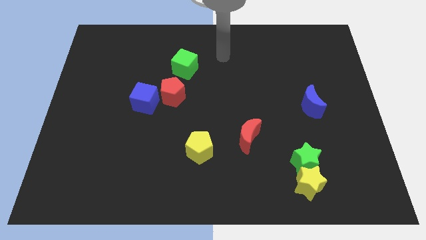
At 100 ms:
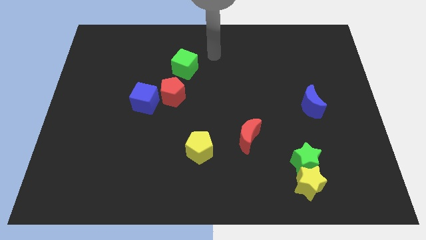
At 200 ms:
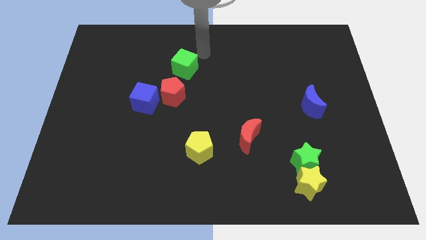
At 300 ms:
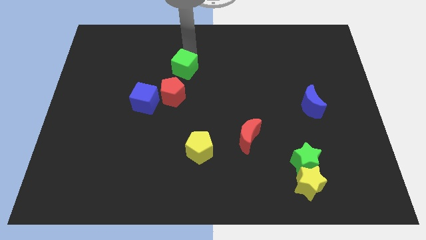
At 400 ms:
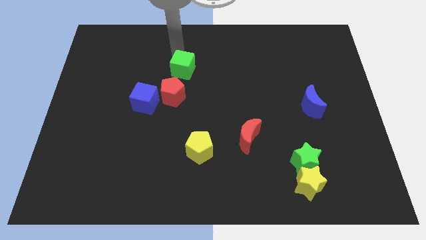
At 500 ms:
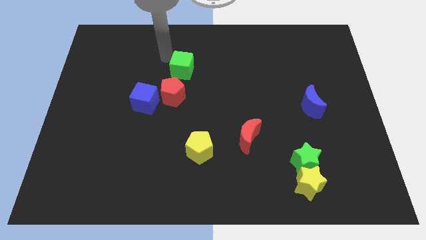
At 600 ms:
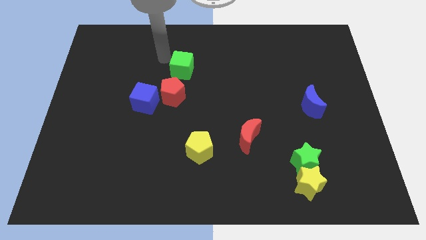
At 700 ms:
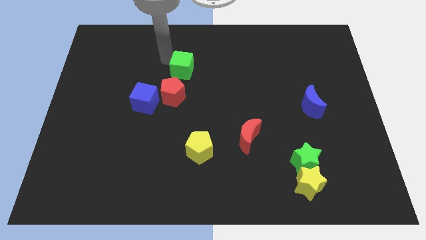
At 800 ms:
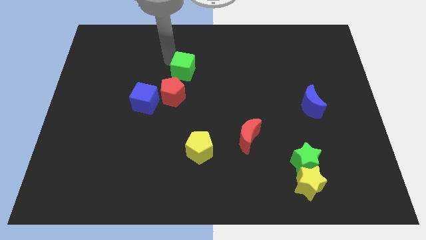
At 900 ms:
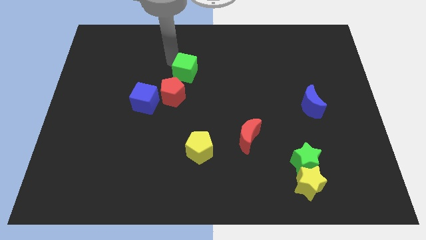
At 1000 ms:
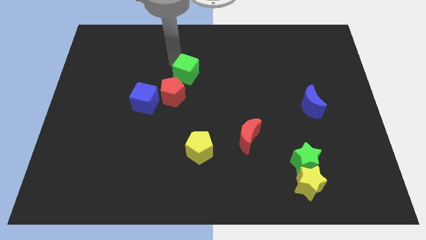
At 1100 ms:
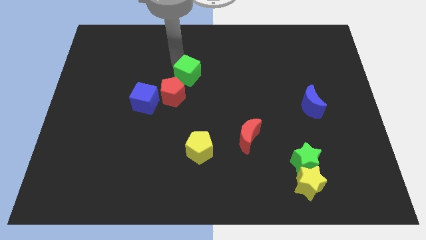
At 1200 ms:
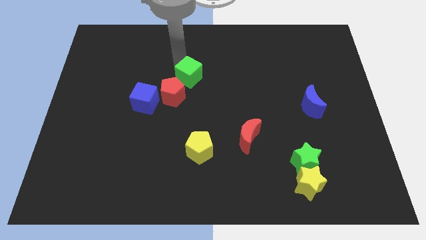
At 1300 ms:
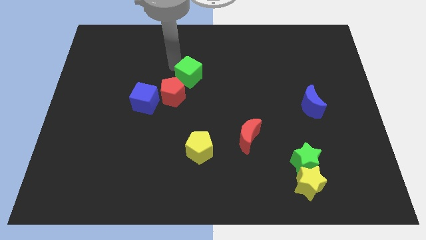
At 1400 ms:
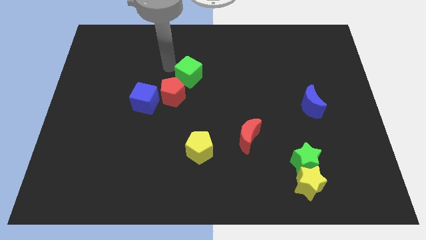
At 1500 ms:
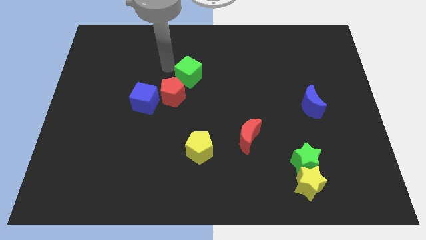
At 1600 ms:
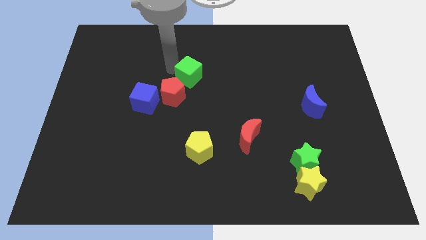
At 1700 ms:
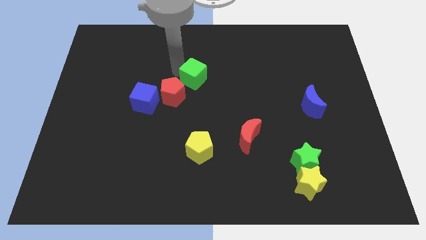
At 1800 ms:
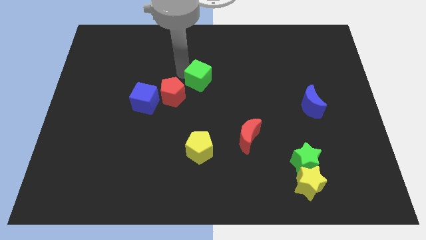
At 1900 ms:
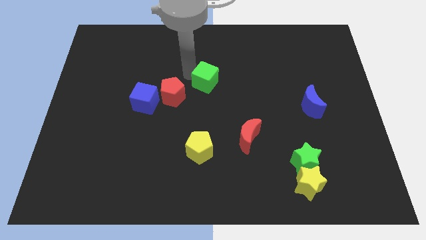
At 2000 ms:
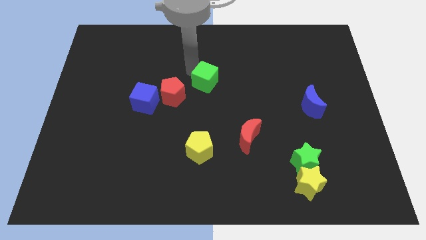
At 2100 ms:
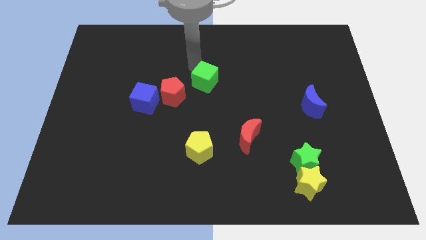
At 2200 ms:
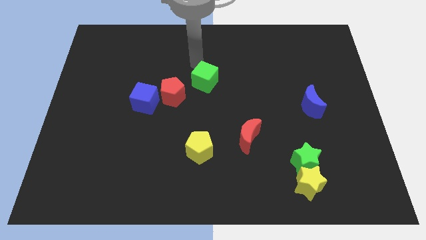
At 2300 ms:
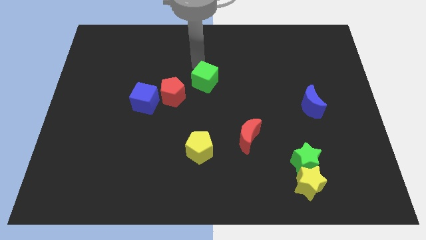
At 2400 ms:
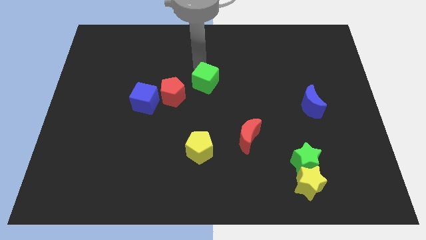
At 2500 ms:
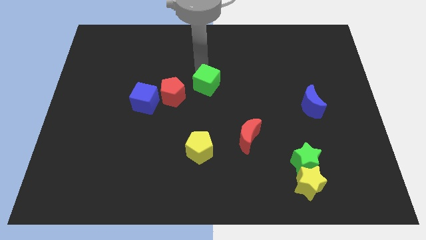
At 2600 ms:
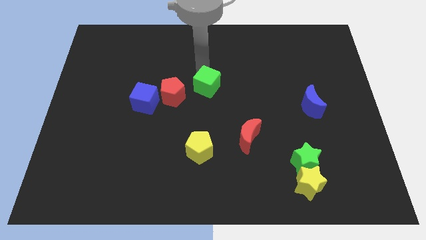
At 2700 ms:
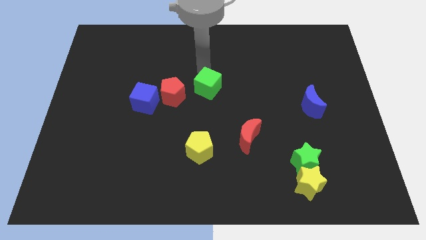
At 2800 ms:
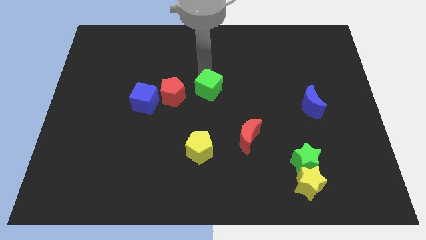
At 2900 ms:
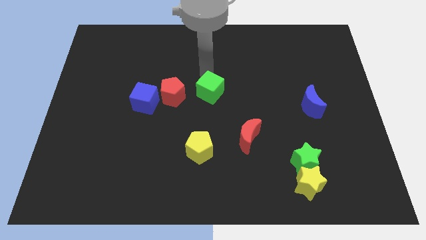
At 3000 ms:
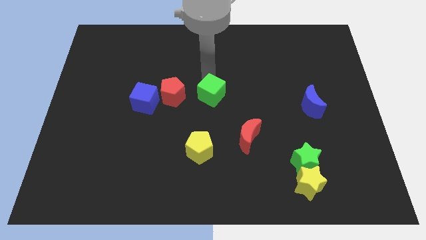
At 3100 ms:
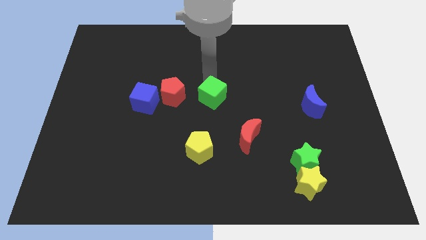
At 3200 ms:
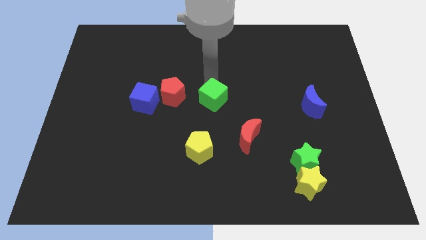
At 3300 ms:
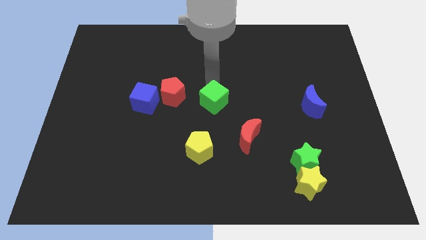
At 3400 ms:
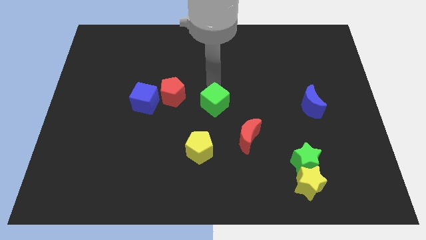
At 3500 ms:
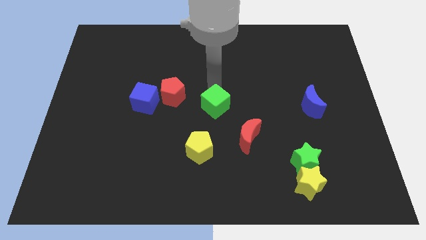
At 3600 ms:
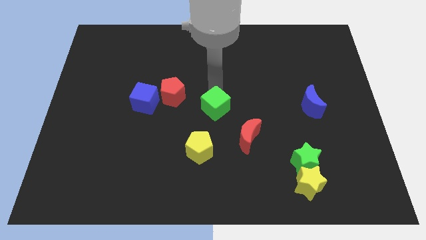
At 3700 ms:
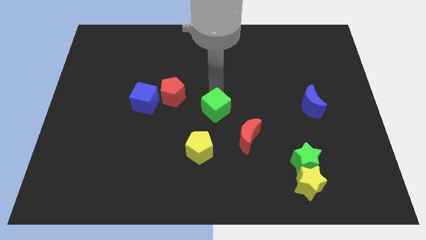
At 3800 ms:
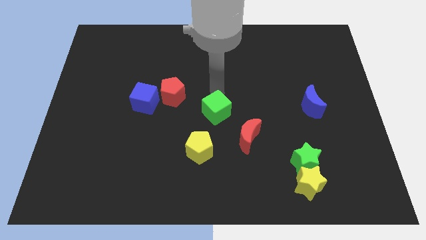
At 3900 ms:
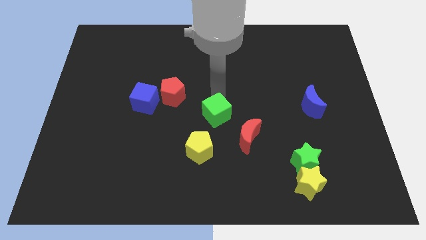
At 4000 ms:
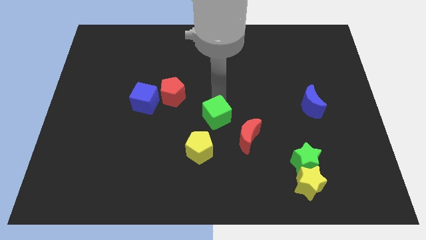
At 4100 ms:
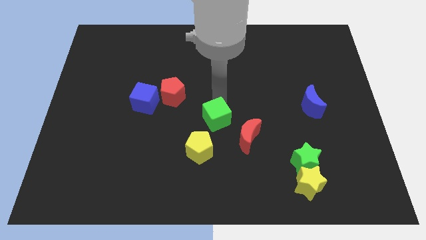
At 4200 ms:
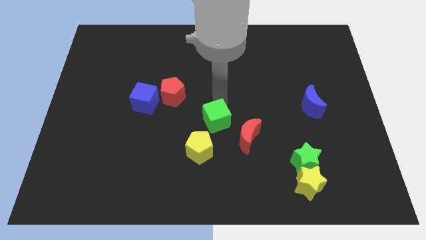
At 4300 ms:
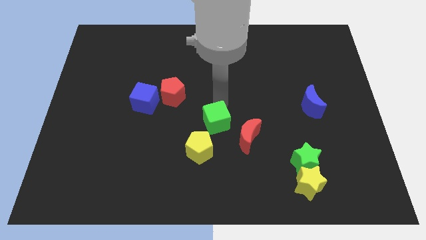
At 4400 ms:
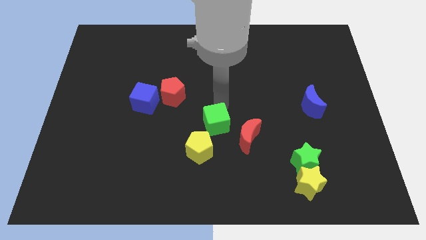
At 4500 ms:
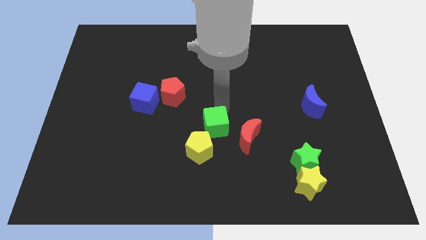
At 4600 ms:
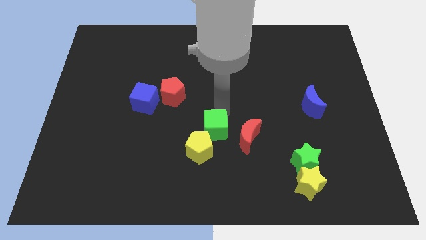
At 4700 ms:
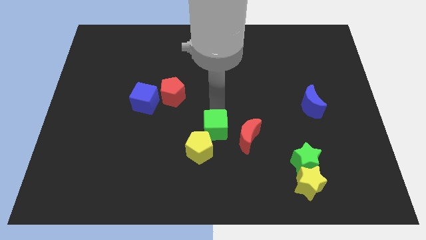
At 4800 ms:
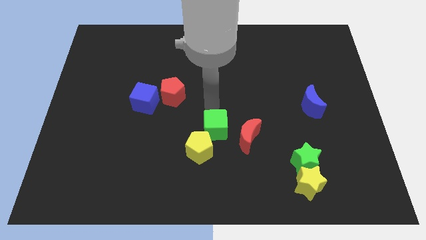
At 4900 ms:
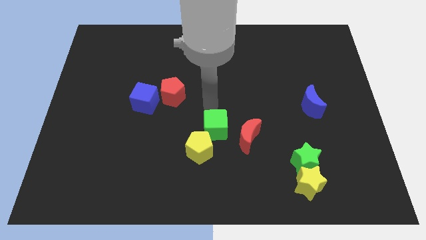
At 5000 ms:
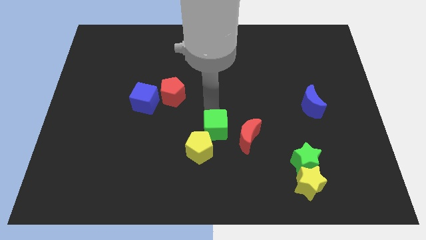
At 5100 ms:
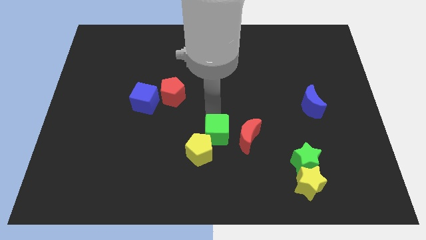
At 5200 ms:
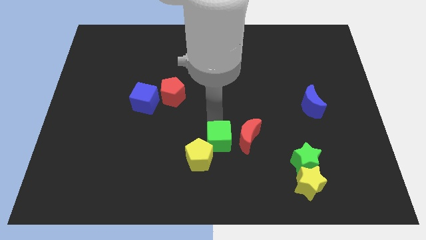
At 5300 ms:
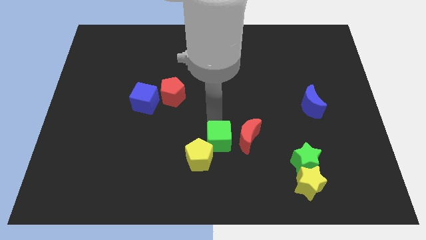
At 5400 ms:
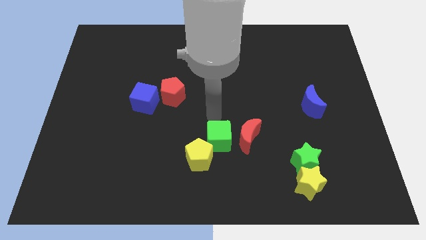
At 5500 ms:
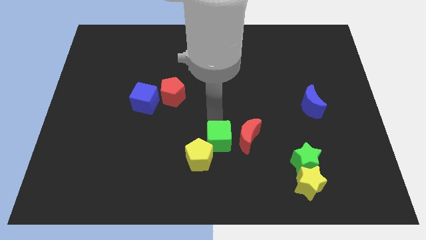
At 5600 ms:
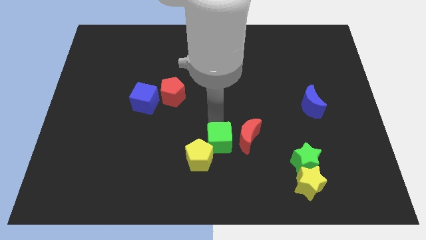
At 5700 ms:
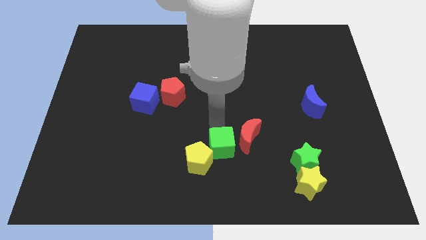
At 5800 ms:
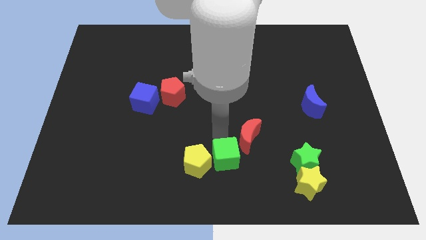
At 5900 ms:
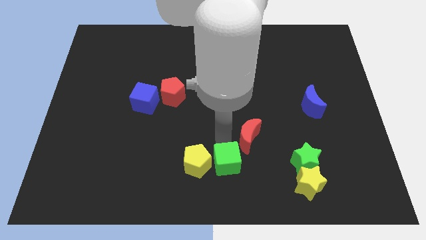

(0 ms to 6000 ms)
push the green cube to the bottom right of the yellow pentagon

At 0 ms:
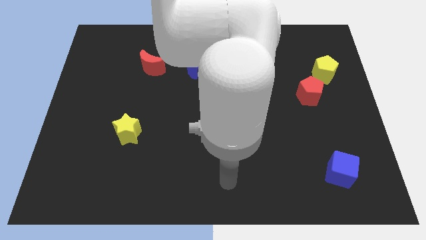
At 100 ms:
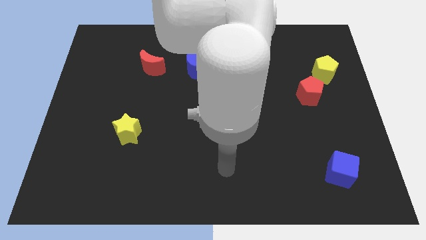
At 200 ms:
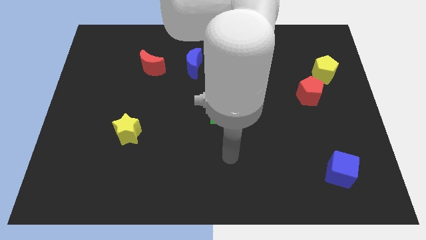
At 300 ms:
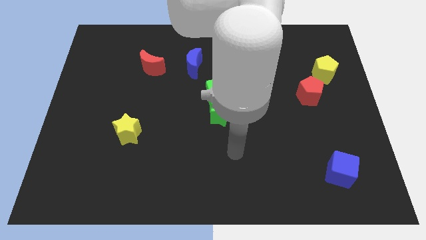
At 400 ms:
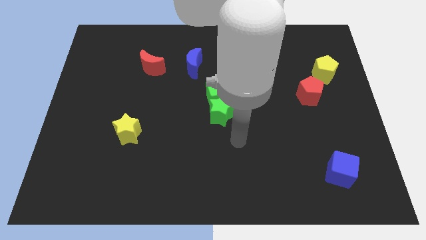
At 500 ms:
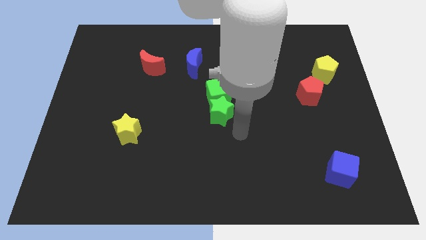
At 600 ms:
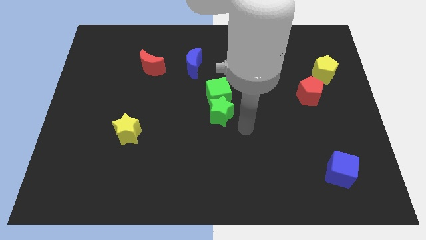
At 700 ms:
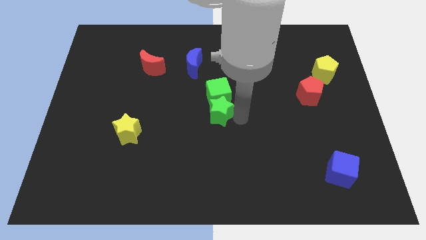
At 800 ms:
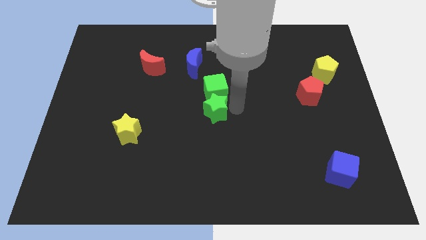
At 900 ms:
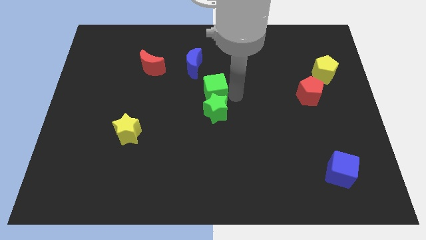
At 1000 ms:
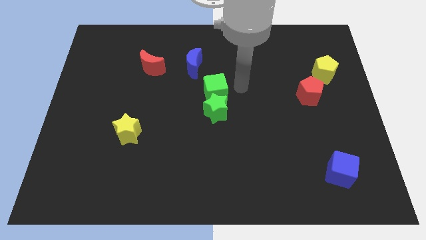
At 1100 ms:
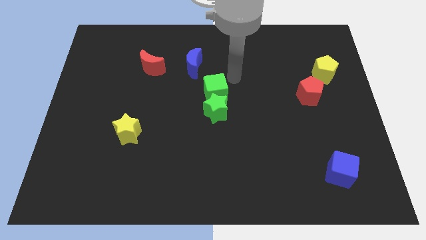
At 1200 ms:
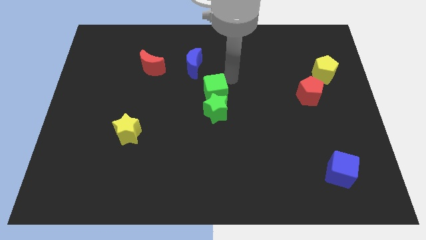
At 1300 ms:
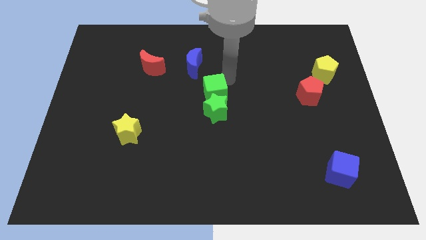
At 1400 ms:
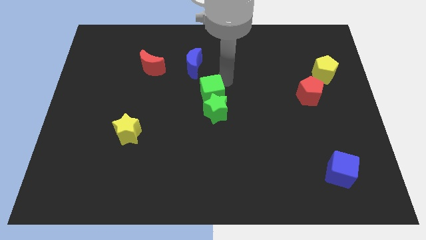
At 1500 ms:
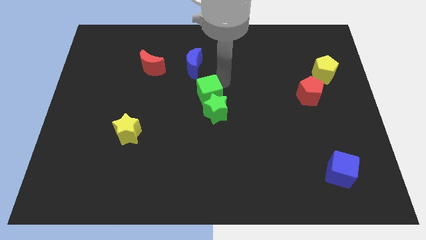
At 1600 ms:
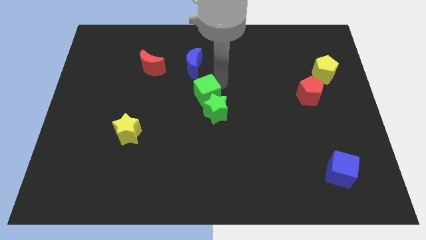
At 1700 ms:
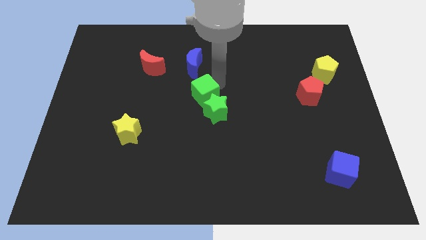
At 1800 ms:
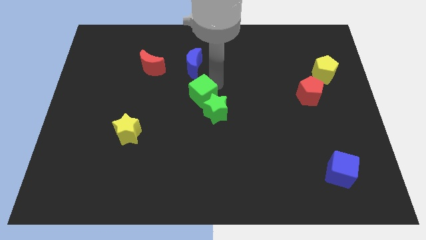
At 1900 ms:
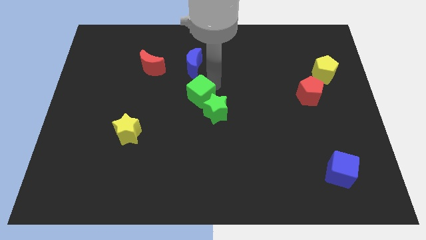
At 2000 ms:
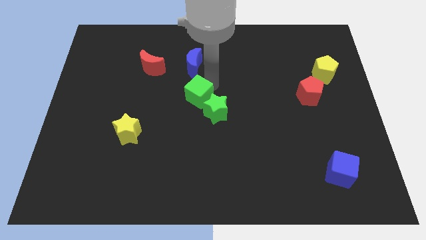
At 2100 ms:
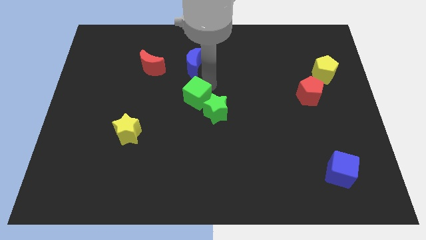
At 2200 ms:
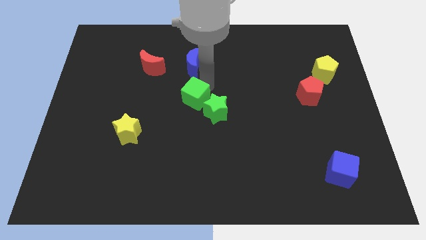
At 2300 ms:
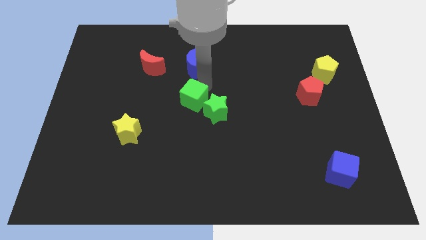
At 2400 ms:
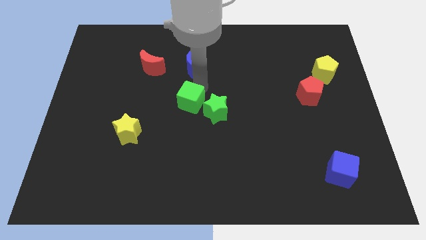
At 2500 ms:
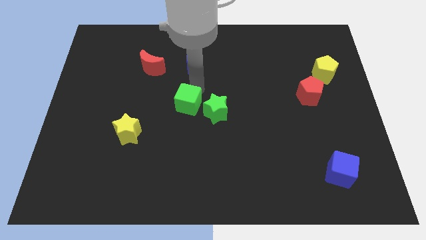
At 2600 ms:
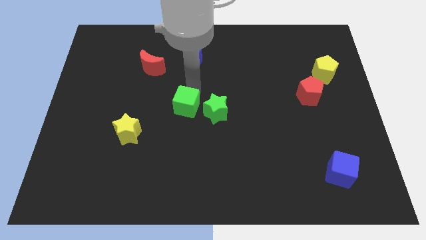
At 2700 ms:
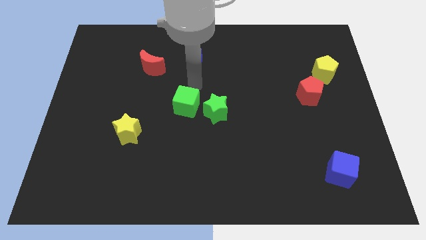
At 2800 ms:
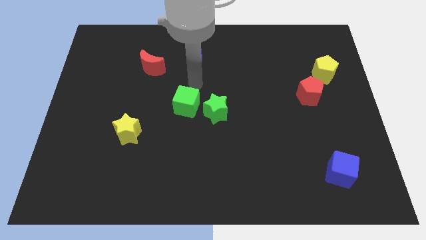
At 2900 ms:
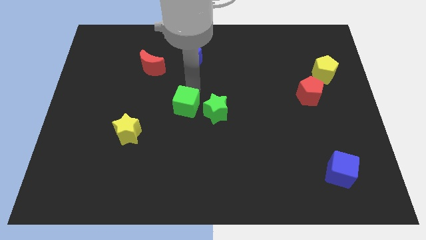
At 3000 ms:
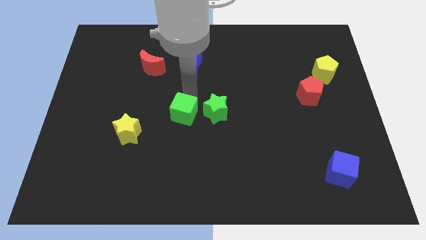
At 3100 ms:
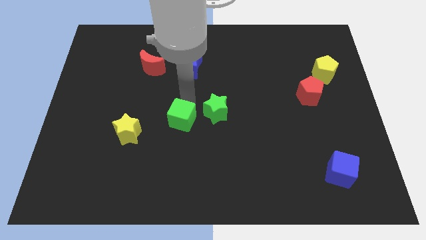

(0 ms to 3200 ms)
put the green cube right of the yellow star
